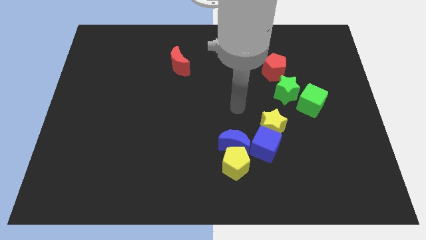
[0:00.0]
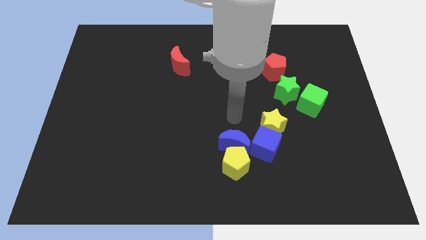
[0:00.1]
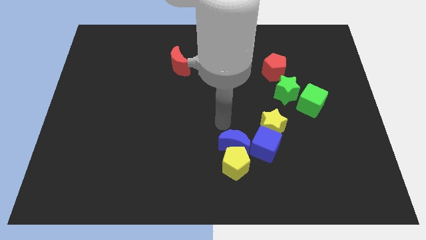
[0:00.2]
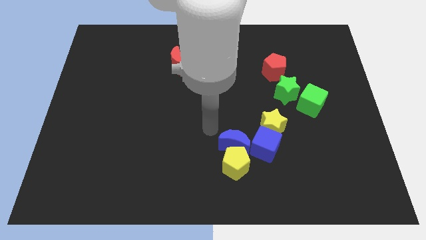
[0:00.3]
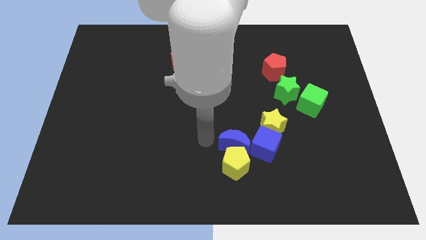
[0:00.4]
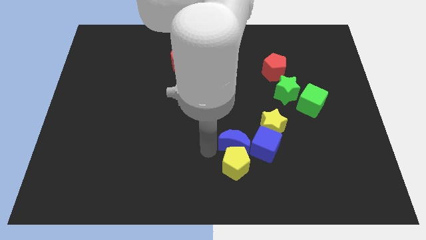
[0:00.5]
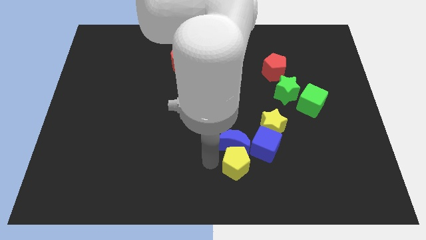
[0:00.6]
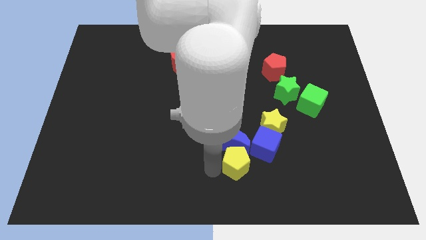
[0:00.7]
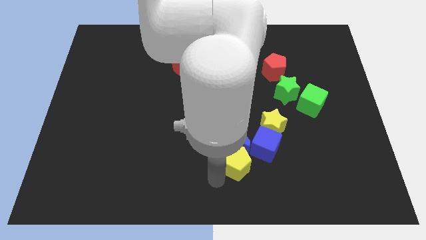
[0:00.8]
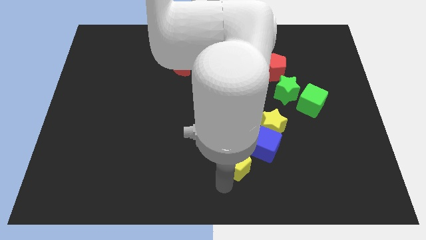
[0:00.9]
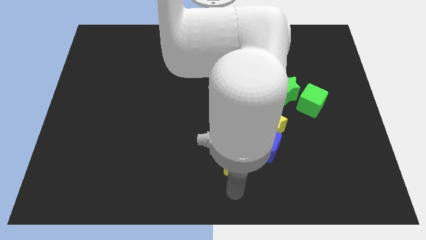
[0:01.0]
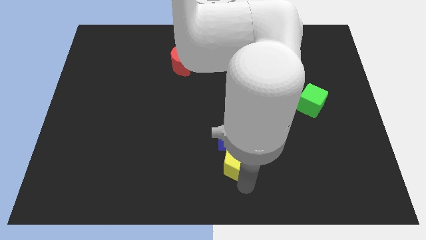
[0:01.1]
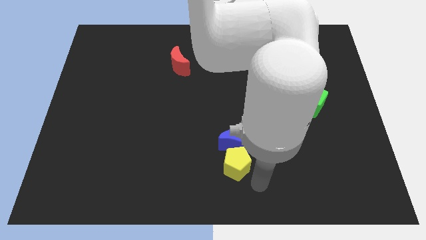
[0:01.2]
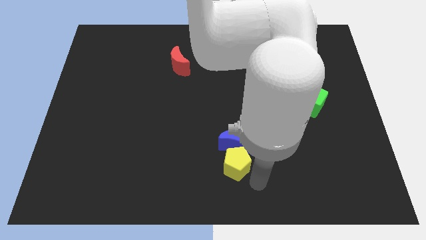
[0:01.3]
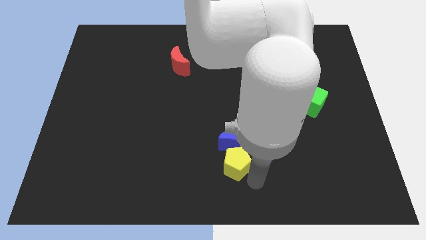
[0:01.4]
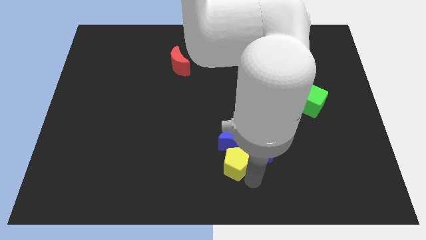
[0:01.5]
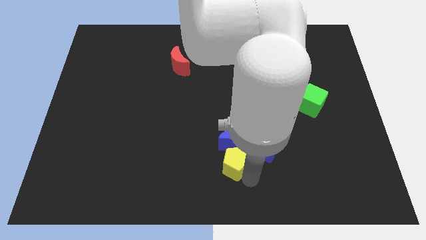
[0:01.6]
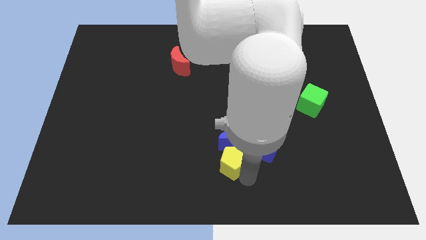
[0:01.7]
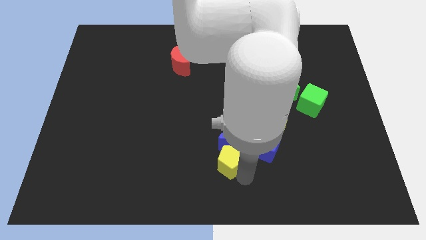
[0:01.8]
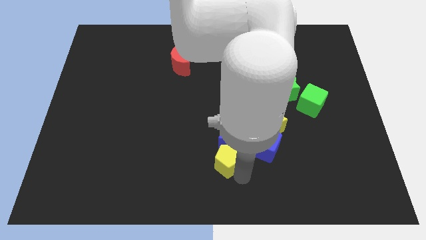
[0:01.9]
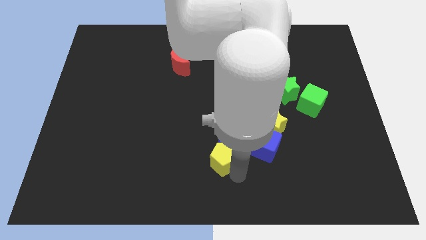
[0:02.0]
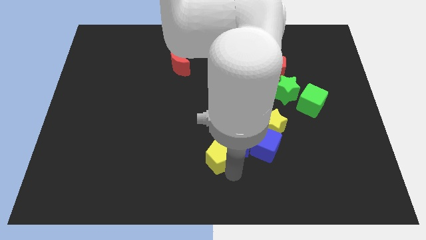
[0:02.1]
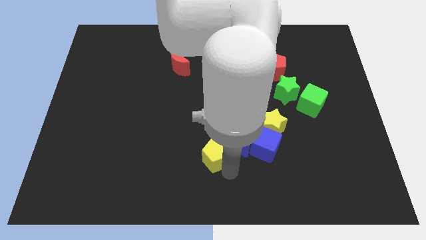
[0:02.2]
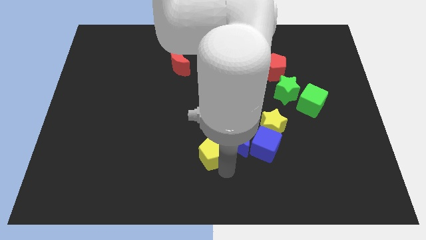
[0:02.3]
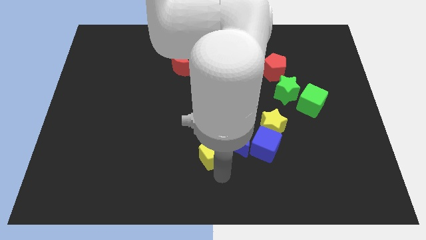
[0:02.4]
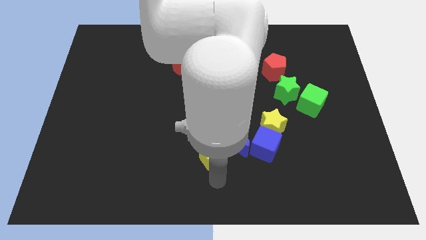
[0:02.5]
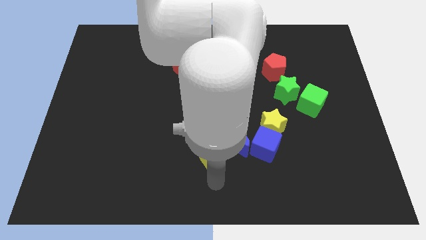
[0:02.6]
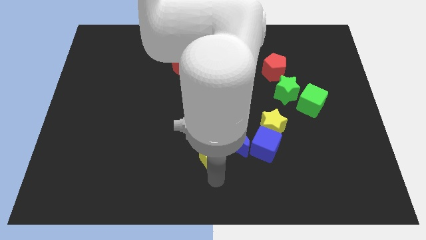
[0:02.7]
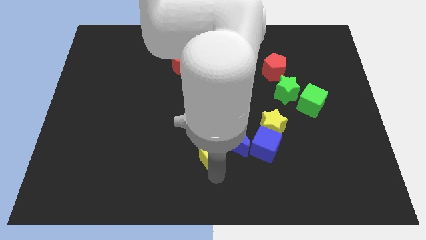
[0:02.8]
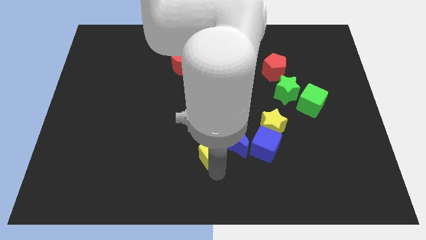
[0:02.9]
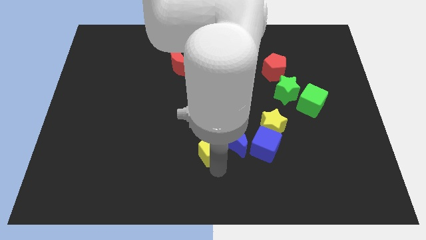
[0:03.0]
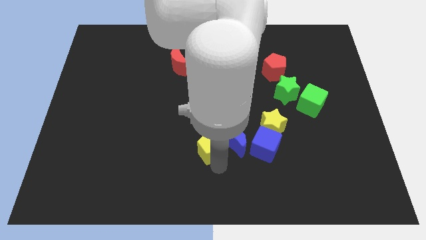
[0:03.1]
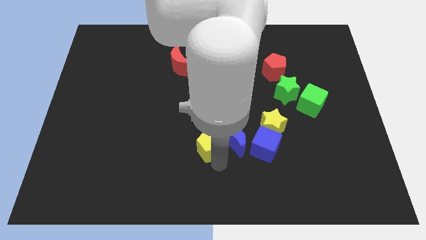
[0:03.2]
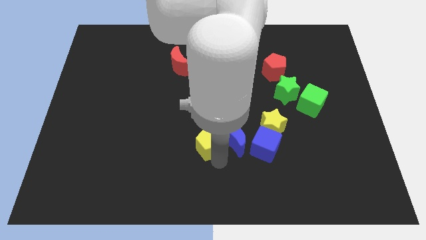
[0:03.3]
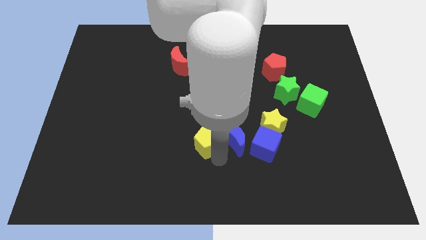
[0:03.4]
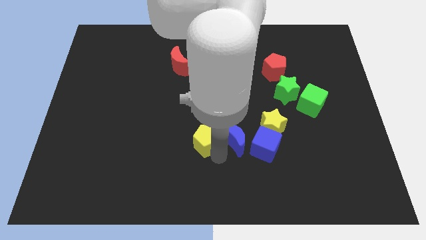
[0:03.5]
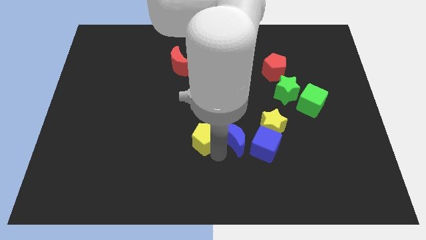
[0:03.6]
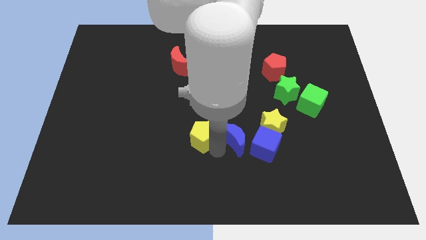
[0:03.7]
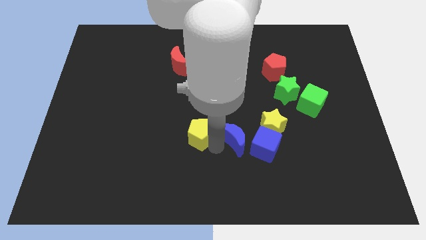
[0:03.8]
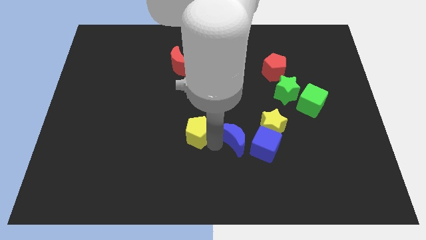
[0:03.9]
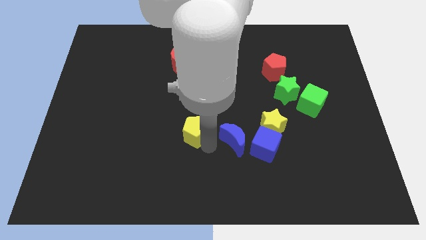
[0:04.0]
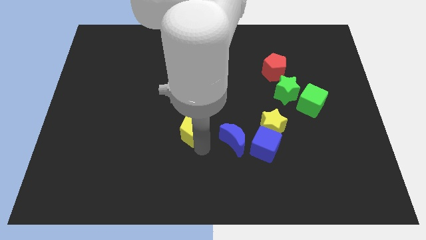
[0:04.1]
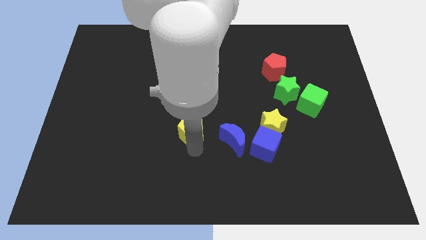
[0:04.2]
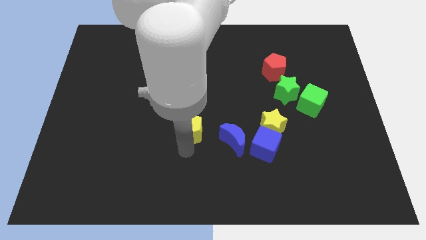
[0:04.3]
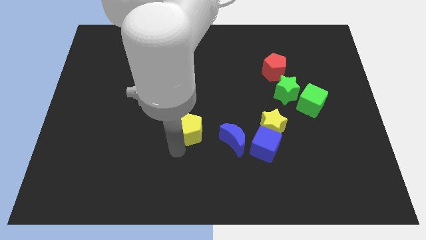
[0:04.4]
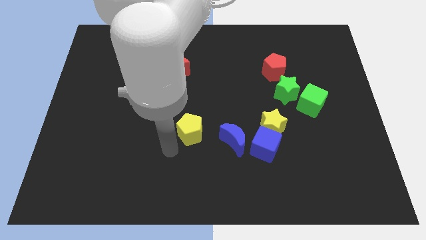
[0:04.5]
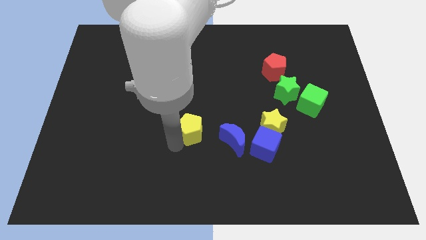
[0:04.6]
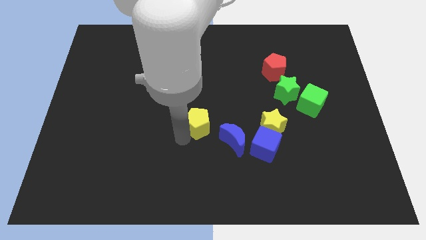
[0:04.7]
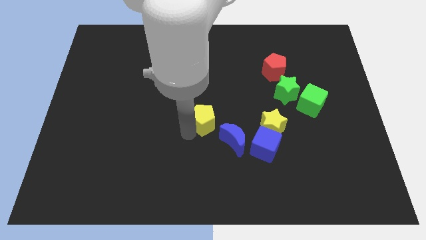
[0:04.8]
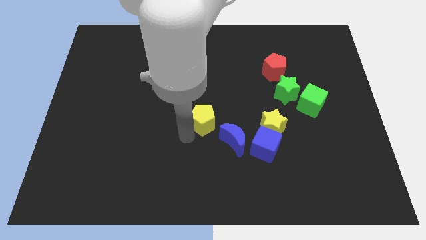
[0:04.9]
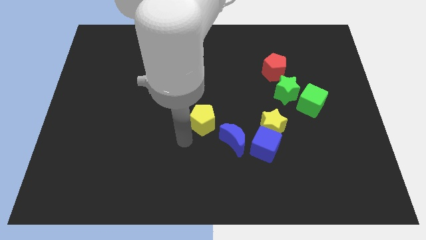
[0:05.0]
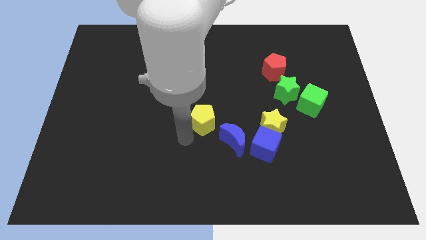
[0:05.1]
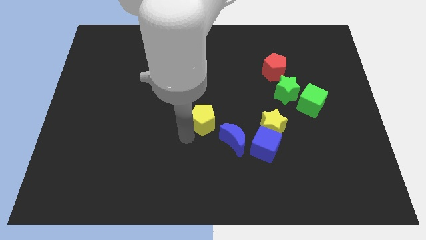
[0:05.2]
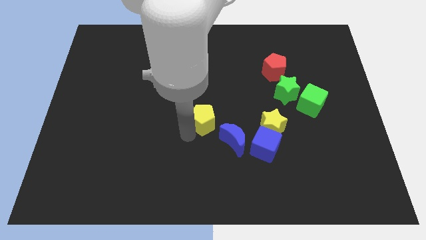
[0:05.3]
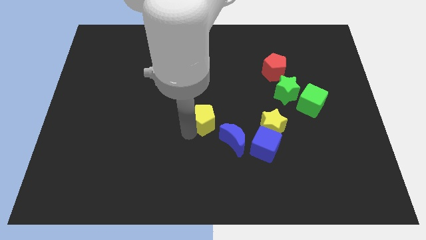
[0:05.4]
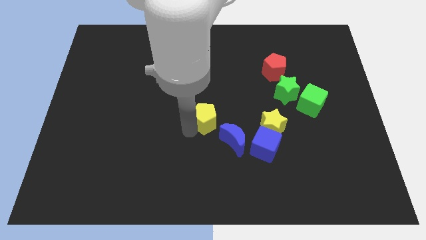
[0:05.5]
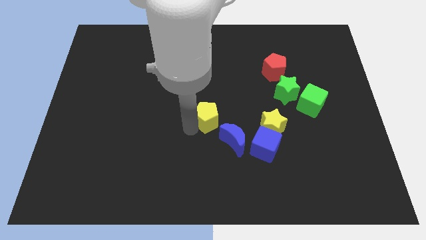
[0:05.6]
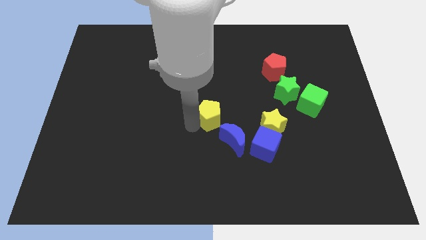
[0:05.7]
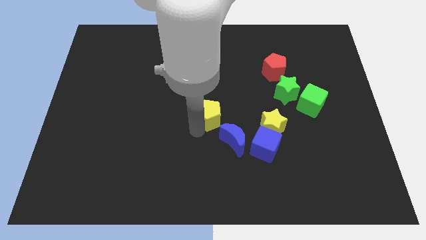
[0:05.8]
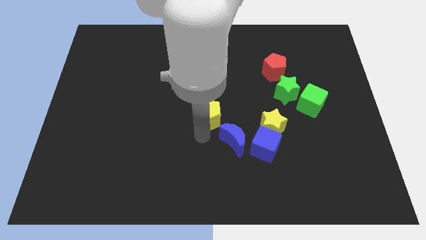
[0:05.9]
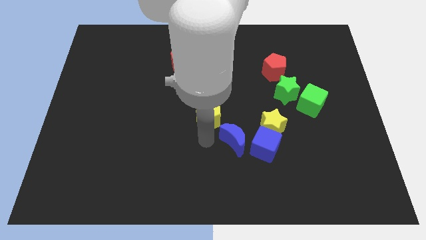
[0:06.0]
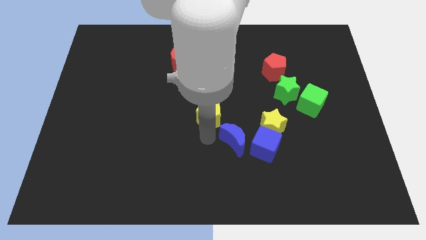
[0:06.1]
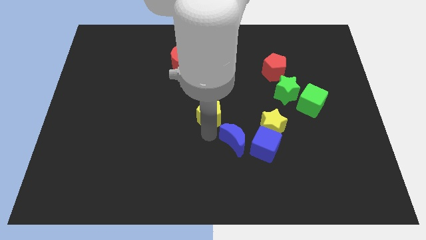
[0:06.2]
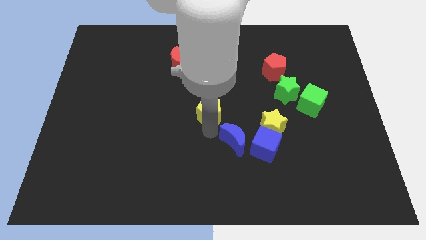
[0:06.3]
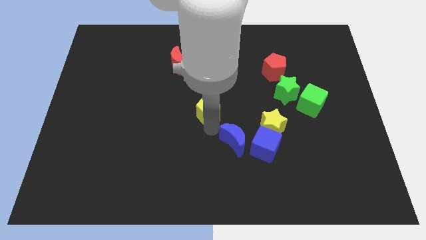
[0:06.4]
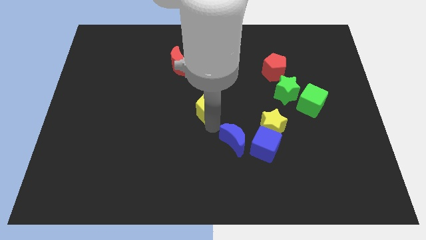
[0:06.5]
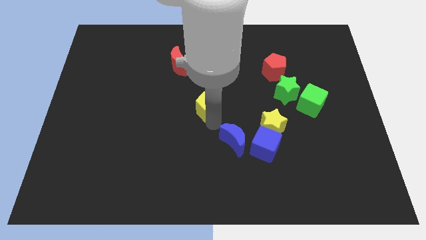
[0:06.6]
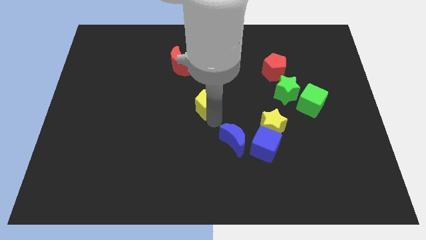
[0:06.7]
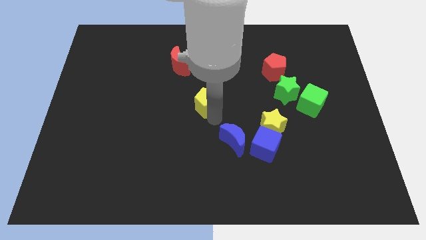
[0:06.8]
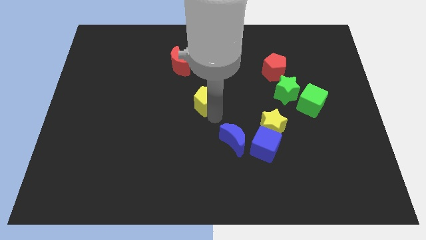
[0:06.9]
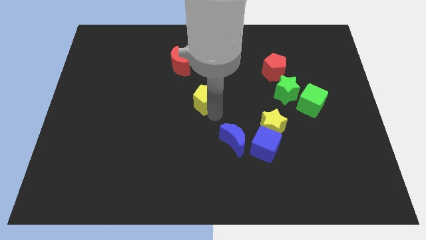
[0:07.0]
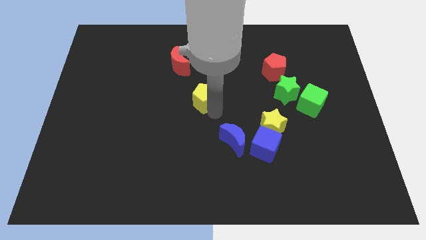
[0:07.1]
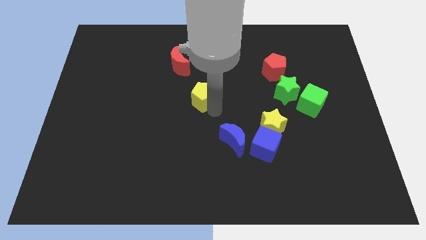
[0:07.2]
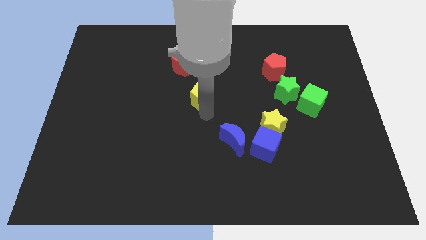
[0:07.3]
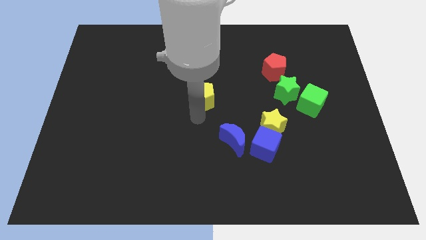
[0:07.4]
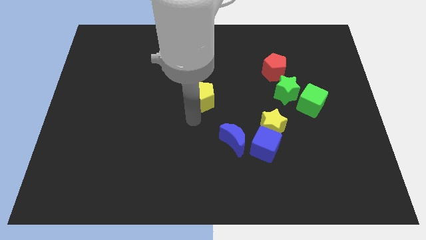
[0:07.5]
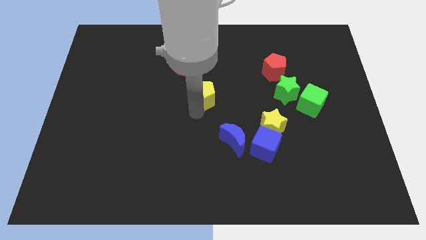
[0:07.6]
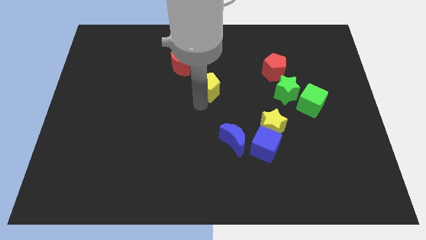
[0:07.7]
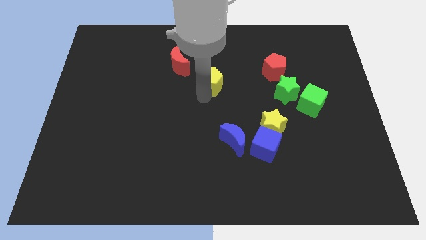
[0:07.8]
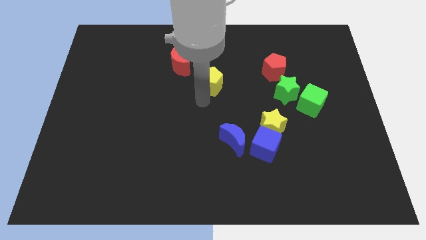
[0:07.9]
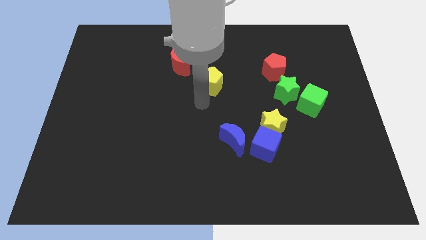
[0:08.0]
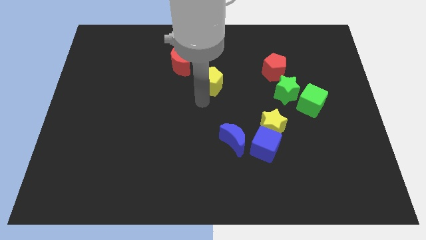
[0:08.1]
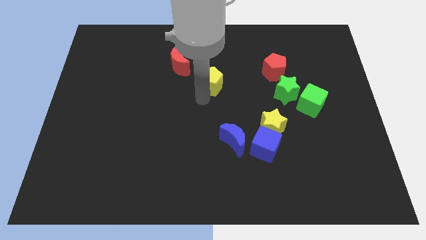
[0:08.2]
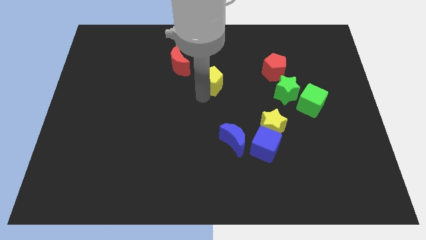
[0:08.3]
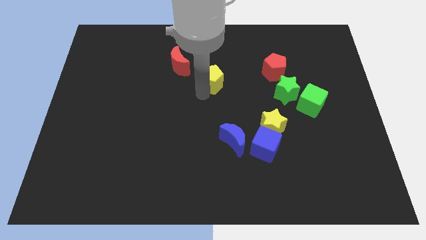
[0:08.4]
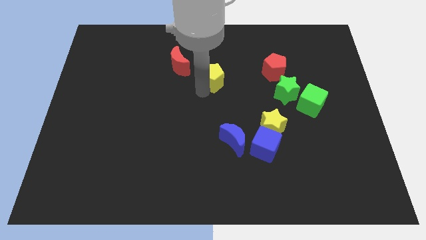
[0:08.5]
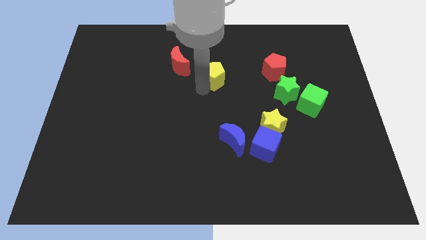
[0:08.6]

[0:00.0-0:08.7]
put the yellow pentagon right of the red moon
